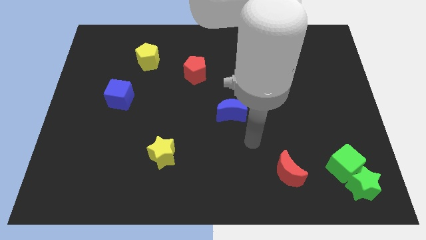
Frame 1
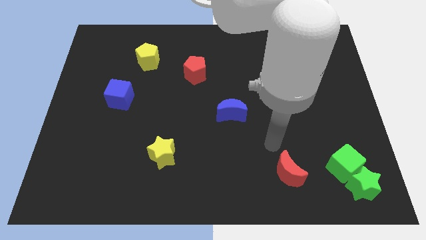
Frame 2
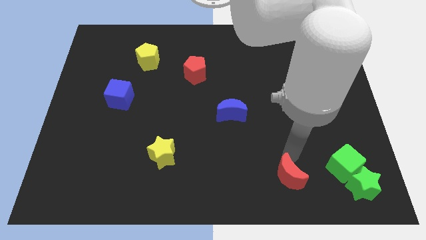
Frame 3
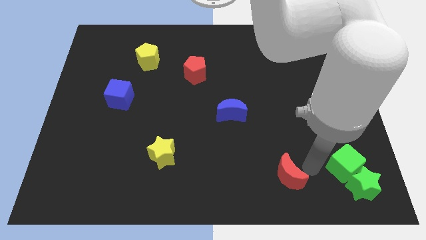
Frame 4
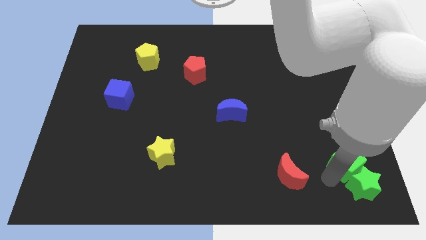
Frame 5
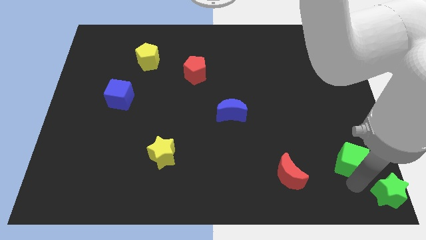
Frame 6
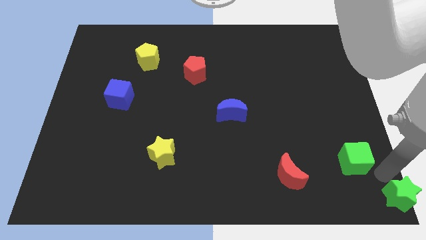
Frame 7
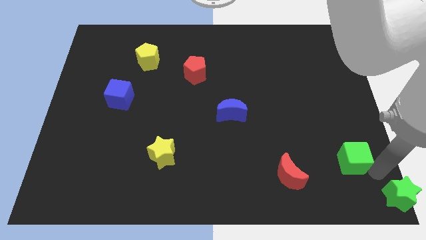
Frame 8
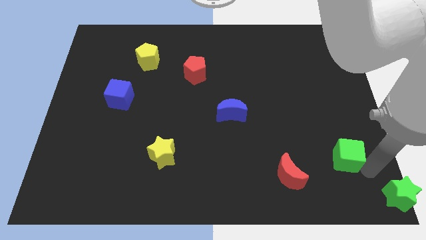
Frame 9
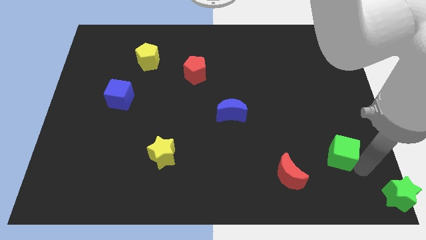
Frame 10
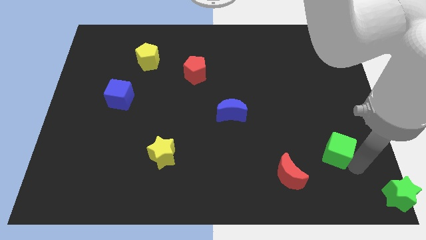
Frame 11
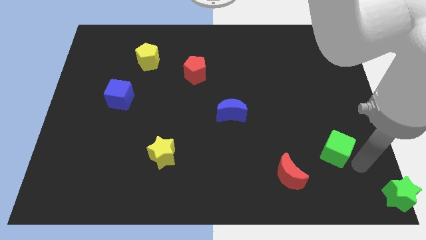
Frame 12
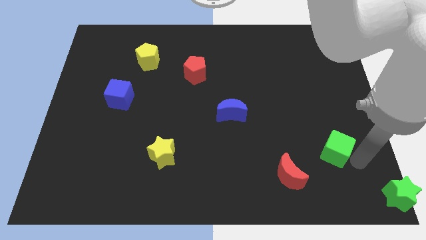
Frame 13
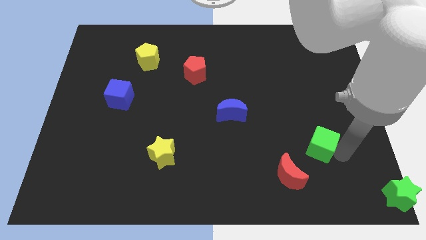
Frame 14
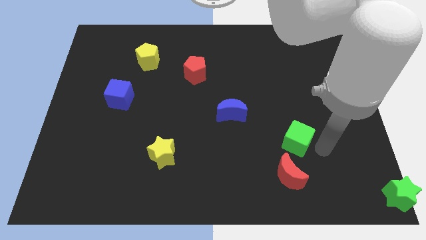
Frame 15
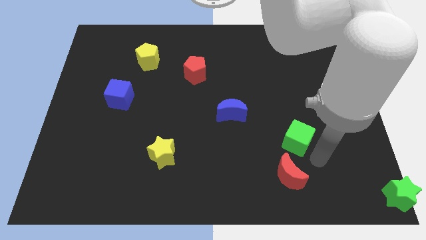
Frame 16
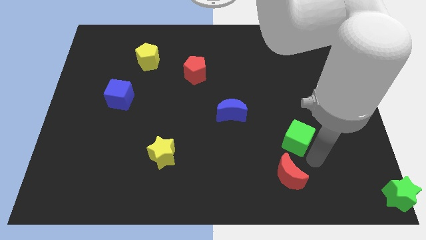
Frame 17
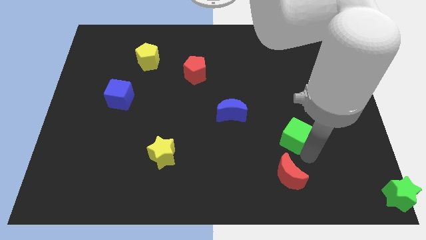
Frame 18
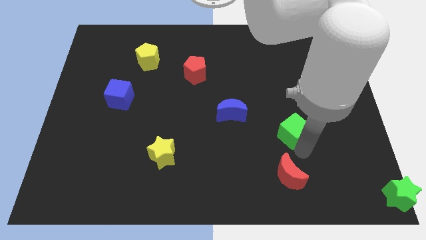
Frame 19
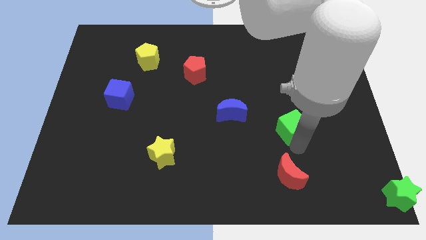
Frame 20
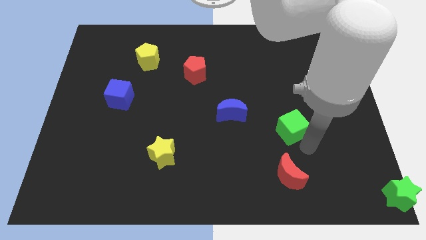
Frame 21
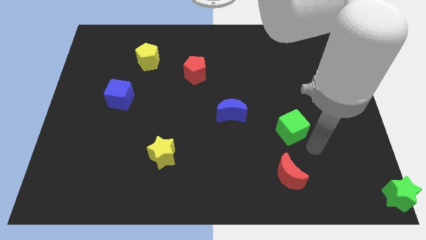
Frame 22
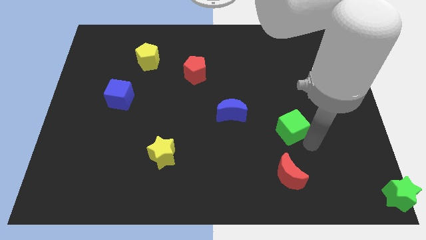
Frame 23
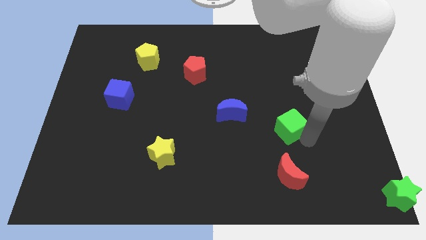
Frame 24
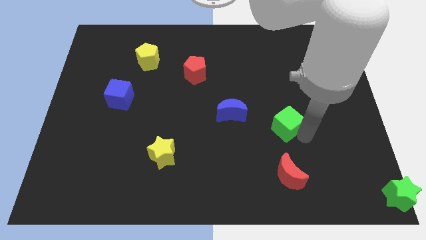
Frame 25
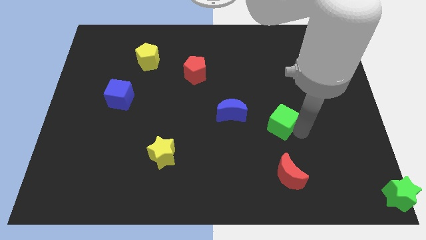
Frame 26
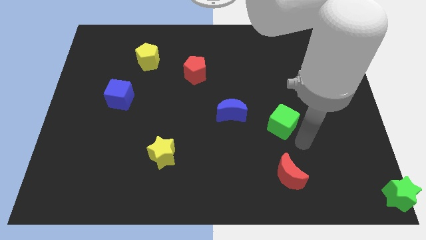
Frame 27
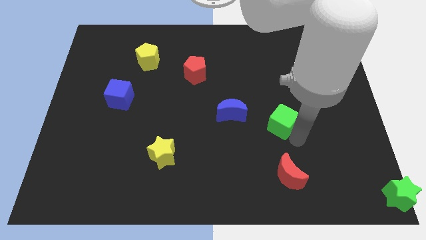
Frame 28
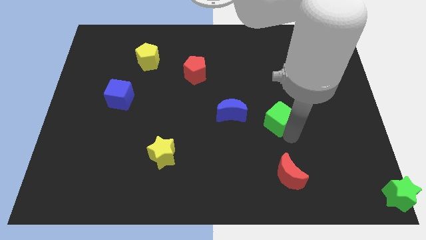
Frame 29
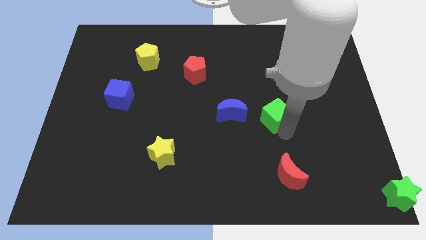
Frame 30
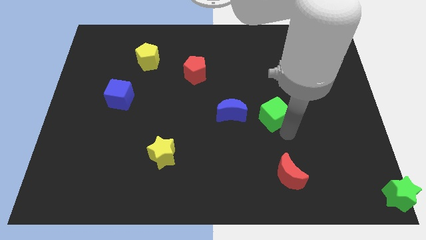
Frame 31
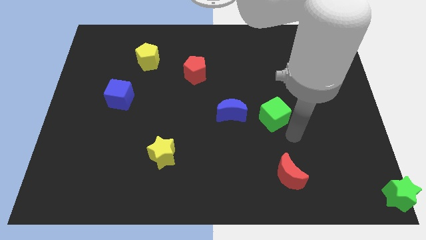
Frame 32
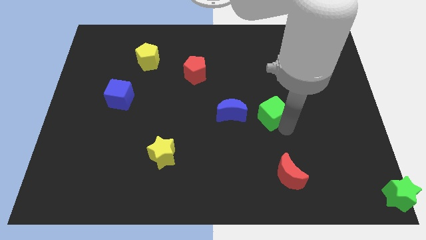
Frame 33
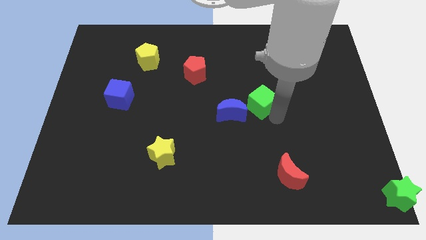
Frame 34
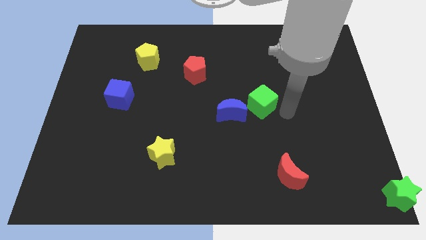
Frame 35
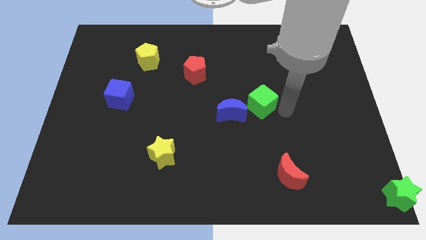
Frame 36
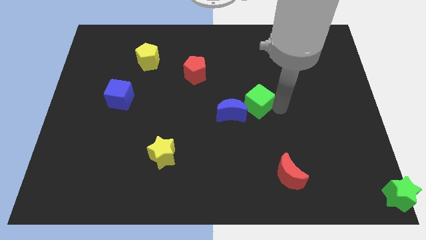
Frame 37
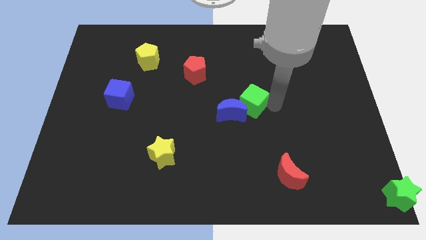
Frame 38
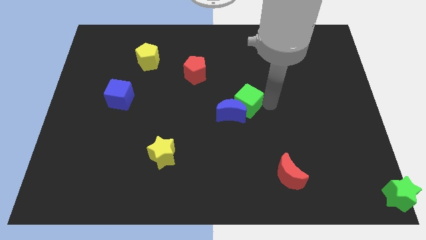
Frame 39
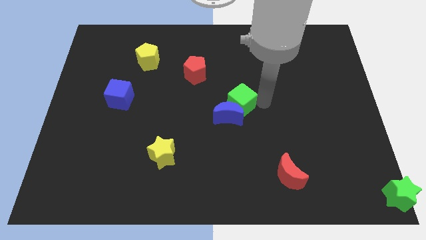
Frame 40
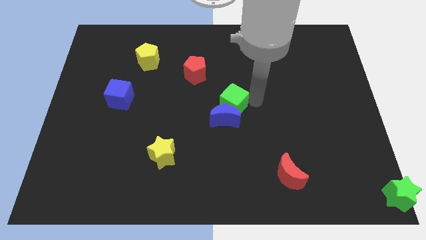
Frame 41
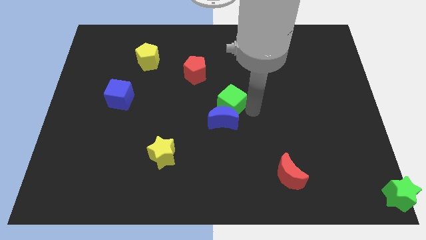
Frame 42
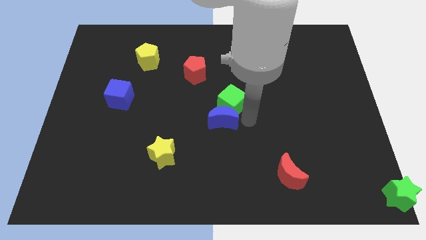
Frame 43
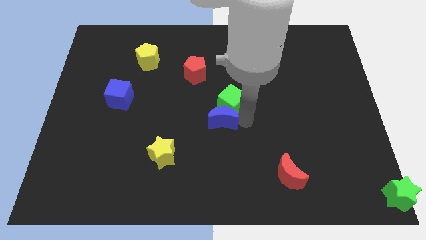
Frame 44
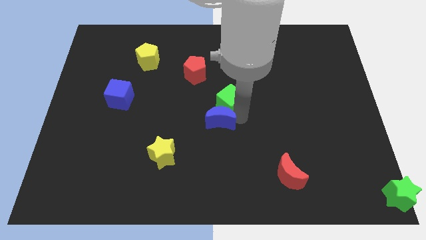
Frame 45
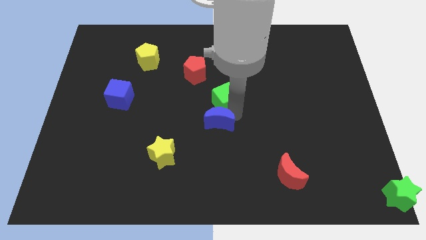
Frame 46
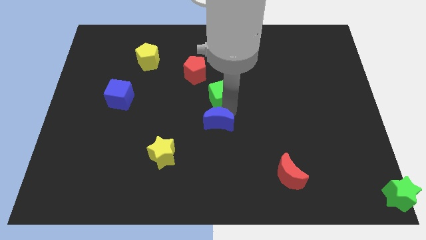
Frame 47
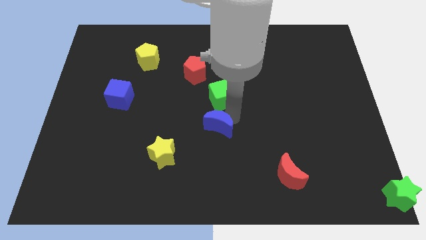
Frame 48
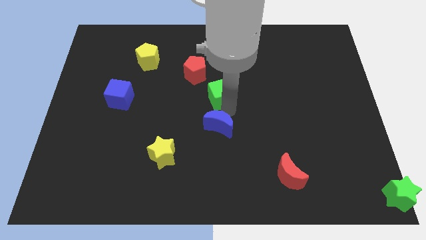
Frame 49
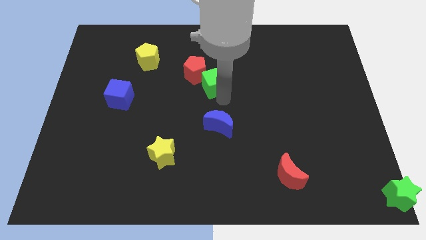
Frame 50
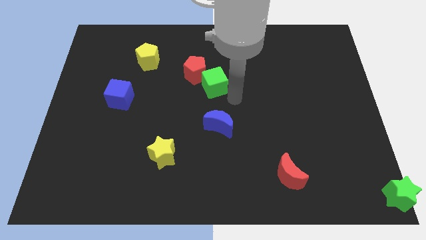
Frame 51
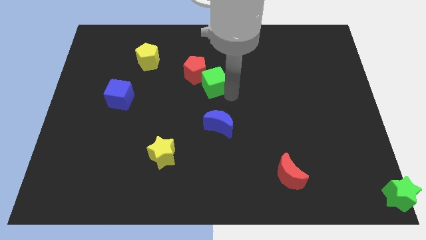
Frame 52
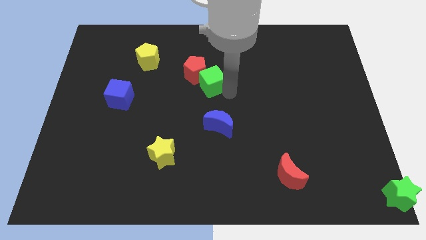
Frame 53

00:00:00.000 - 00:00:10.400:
put the green cube close to the red pentagon

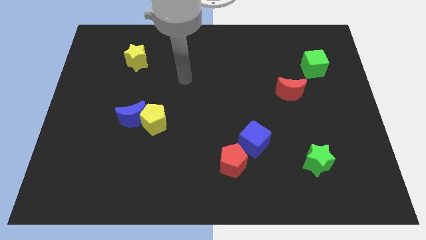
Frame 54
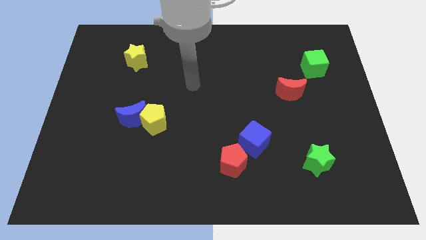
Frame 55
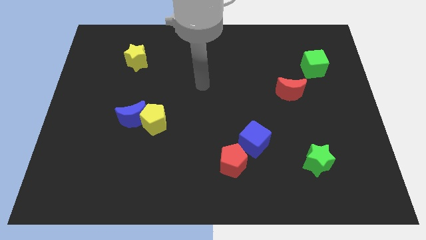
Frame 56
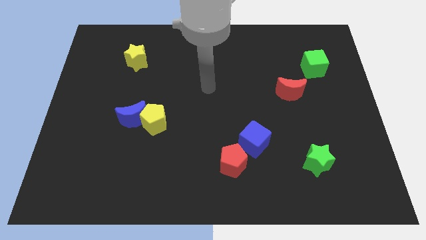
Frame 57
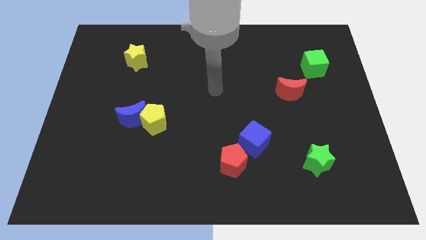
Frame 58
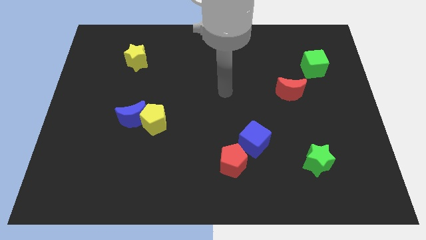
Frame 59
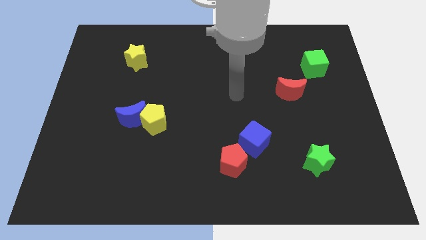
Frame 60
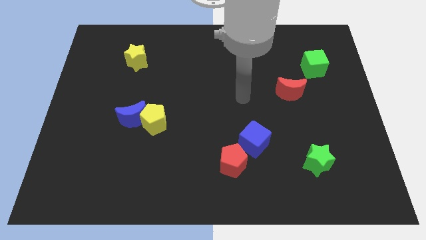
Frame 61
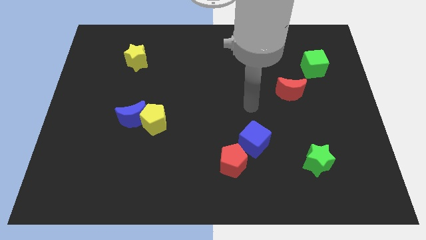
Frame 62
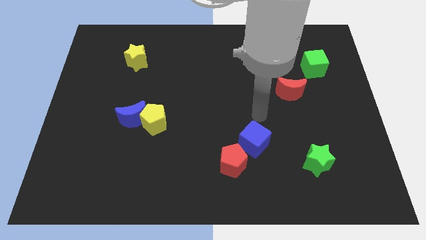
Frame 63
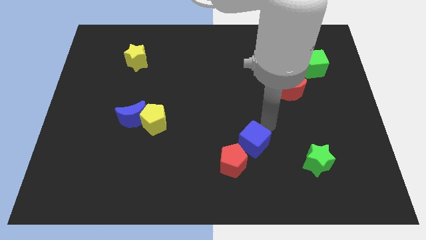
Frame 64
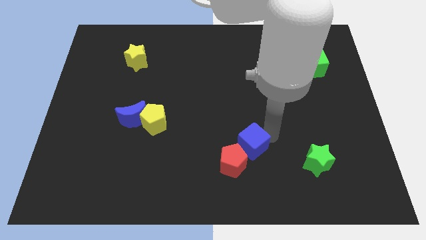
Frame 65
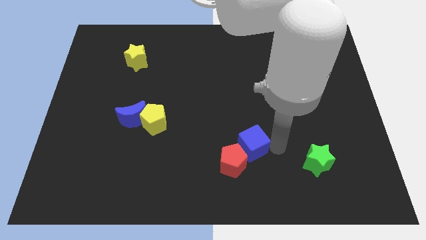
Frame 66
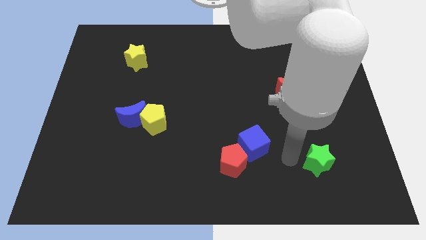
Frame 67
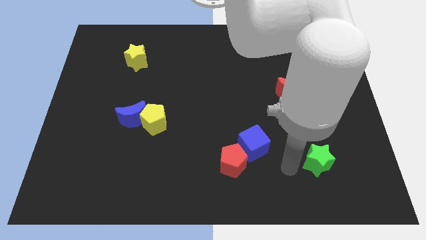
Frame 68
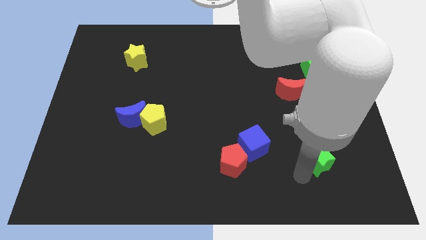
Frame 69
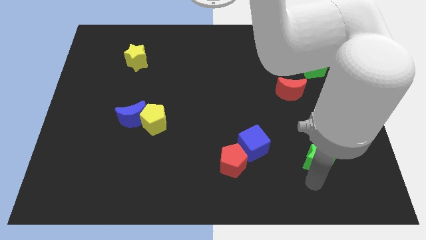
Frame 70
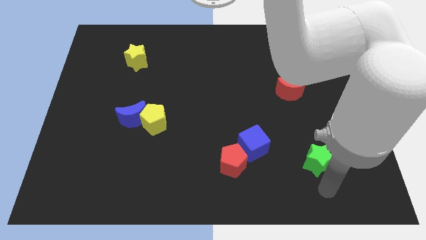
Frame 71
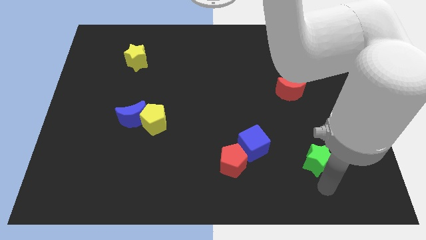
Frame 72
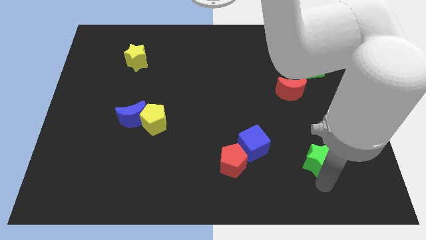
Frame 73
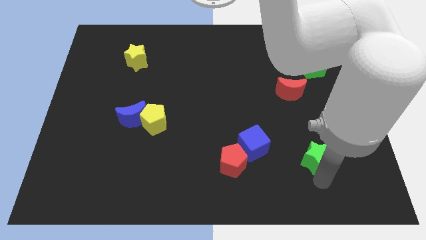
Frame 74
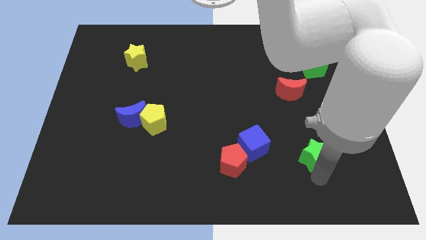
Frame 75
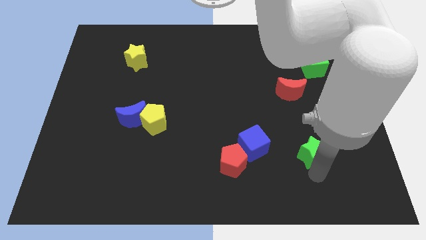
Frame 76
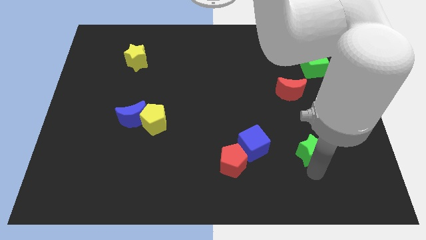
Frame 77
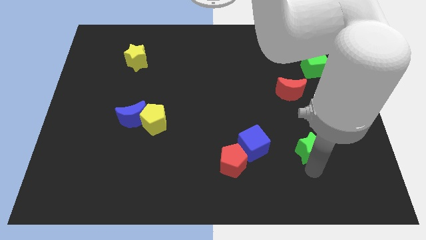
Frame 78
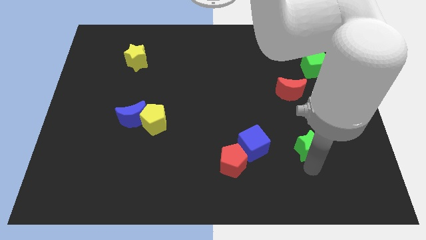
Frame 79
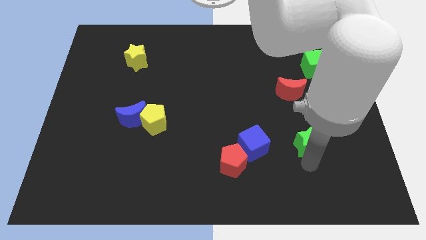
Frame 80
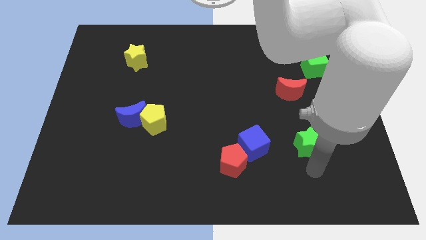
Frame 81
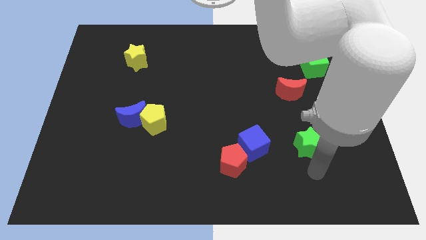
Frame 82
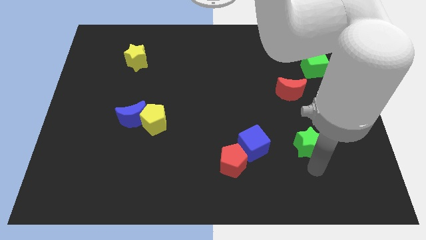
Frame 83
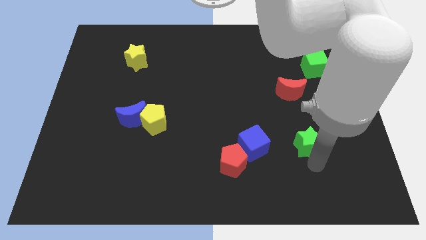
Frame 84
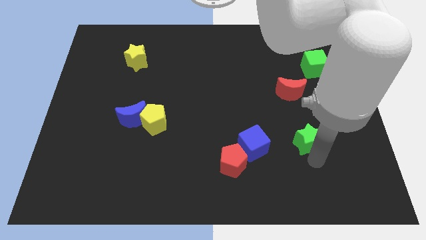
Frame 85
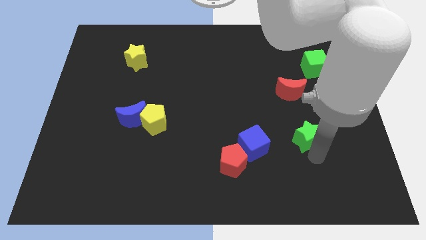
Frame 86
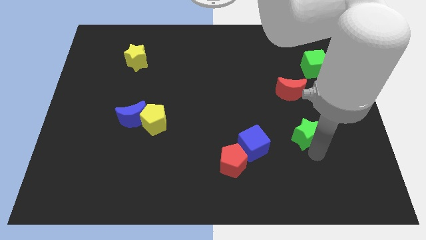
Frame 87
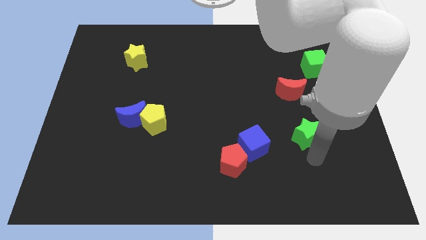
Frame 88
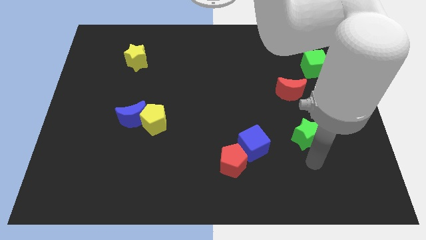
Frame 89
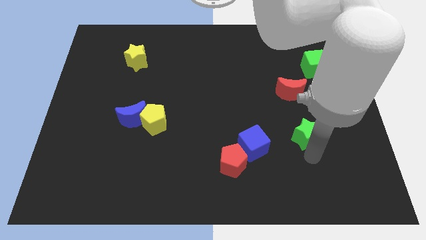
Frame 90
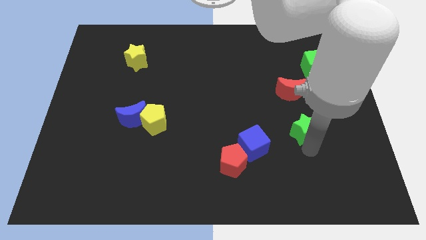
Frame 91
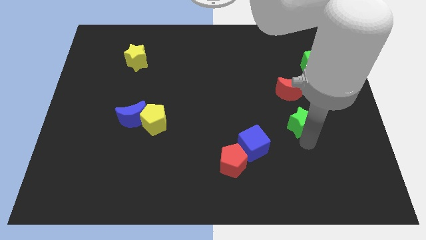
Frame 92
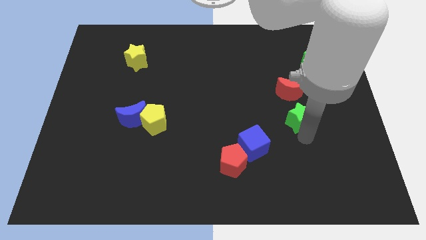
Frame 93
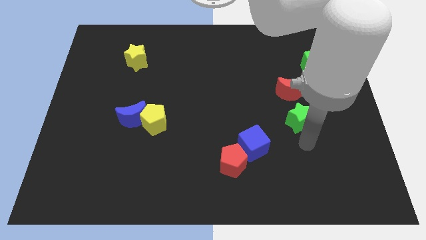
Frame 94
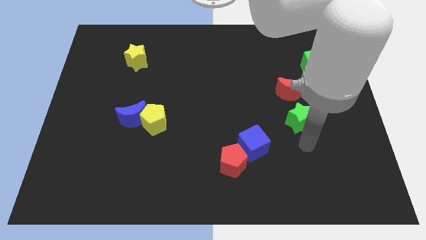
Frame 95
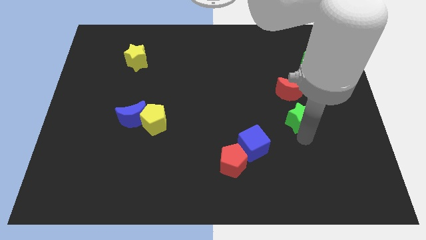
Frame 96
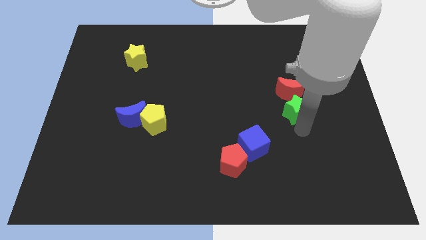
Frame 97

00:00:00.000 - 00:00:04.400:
slide the green star close to the red moon
